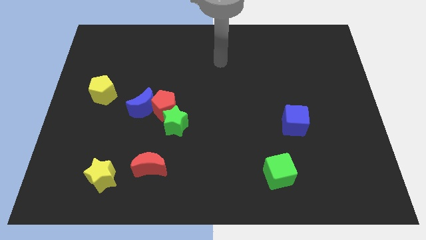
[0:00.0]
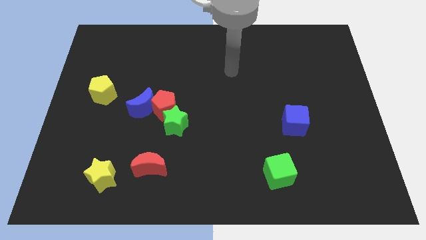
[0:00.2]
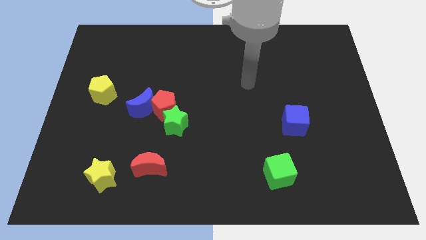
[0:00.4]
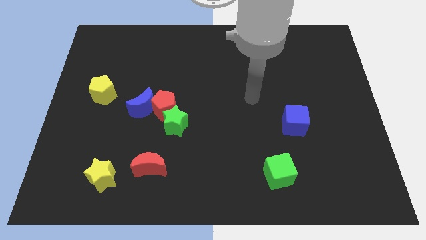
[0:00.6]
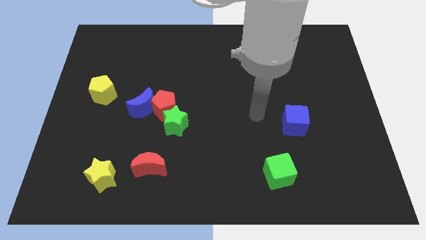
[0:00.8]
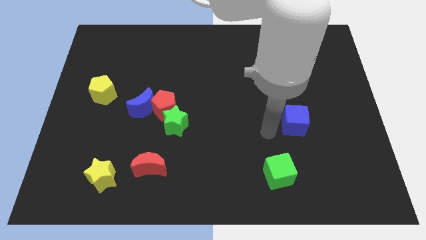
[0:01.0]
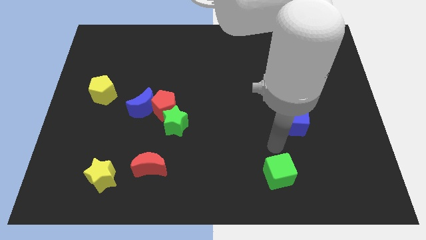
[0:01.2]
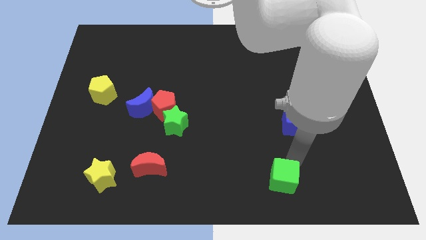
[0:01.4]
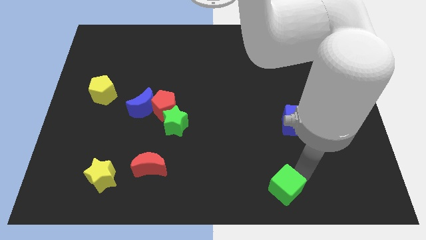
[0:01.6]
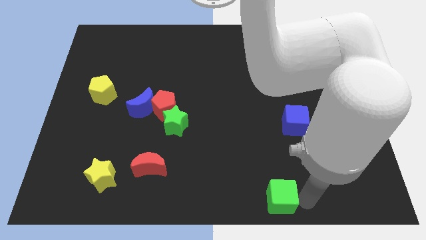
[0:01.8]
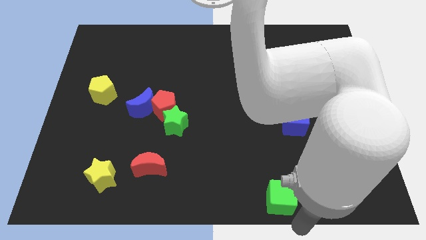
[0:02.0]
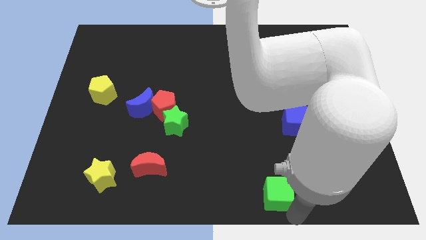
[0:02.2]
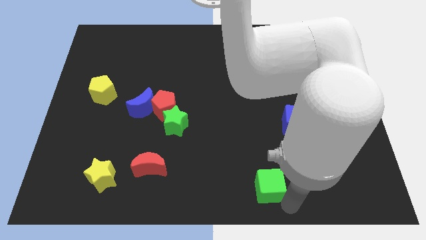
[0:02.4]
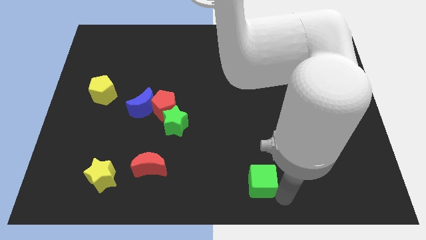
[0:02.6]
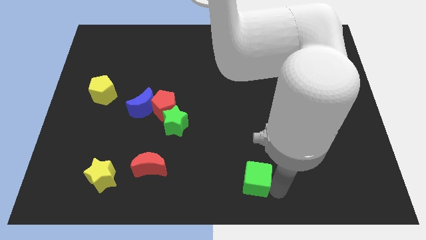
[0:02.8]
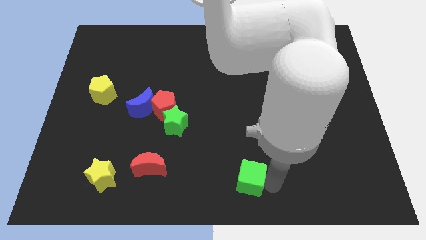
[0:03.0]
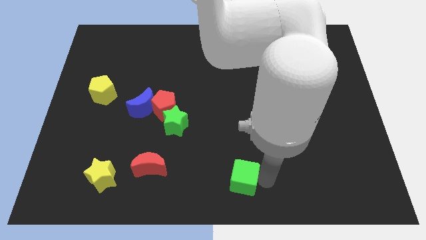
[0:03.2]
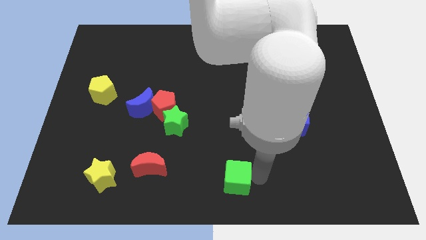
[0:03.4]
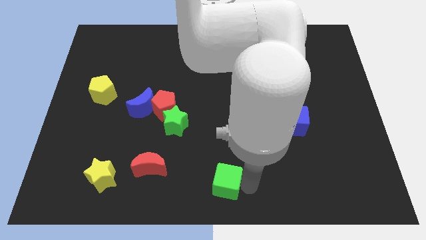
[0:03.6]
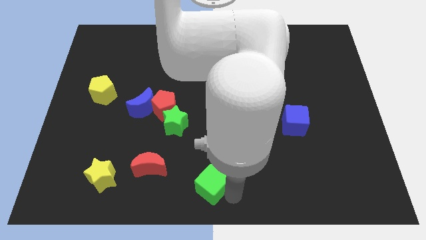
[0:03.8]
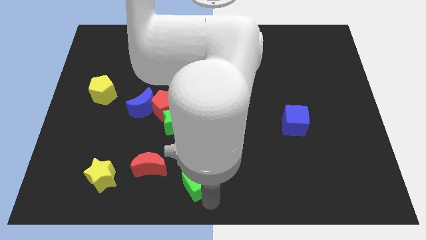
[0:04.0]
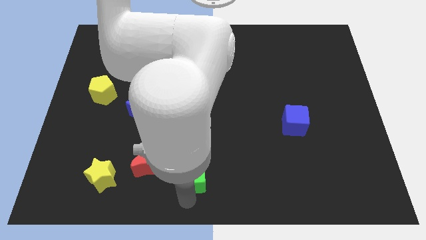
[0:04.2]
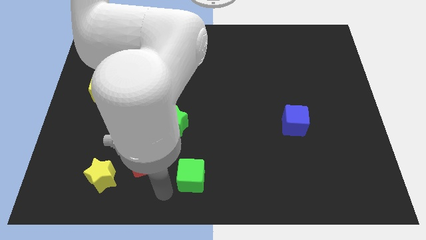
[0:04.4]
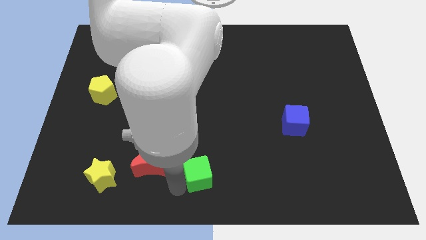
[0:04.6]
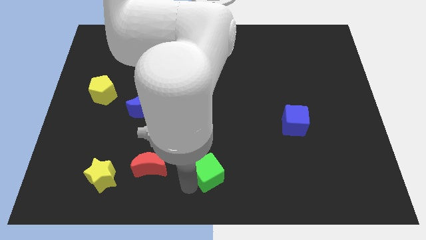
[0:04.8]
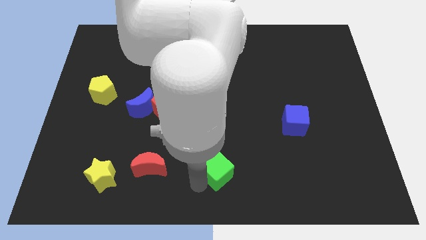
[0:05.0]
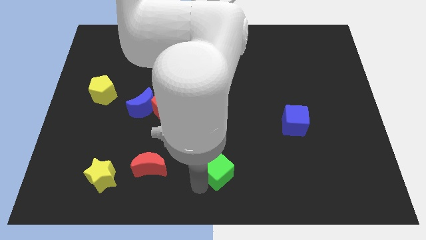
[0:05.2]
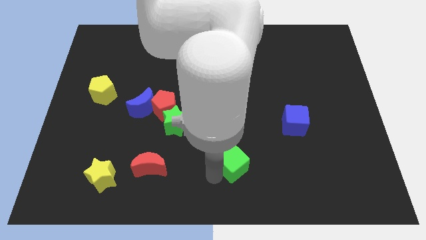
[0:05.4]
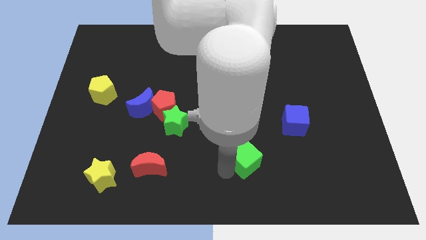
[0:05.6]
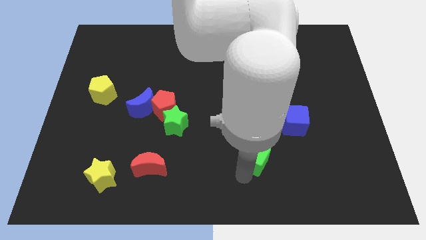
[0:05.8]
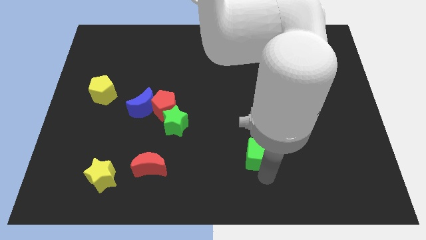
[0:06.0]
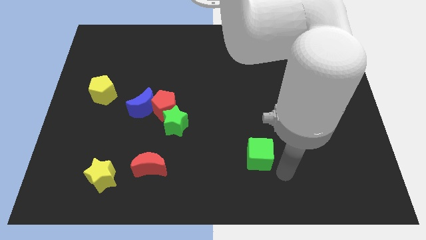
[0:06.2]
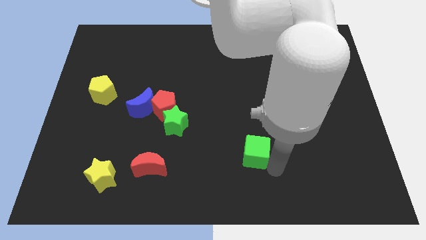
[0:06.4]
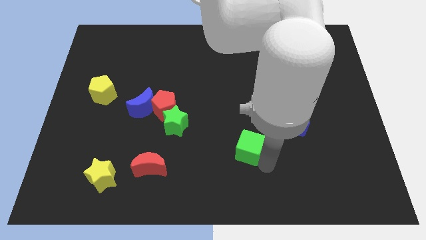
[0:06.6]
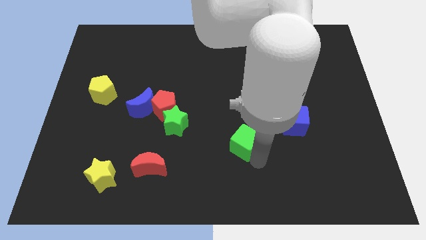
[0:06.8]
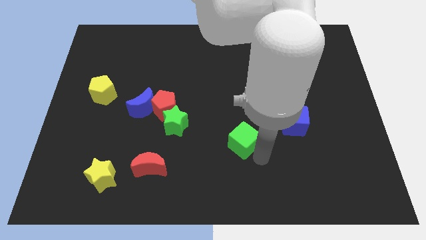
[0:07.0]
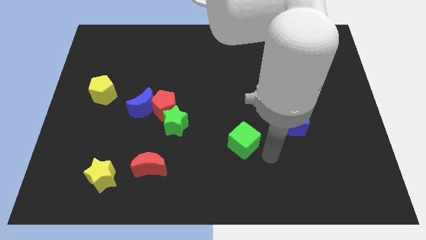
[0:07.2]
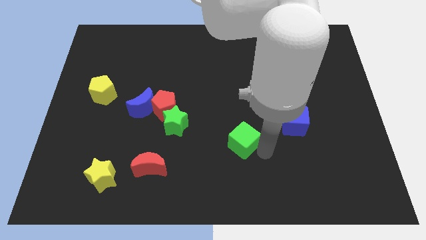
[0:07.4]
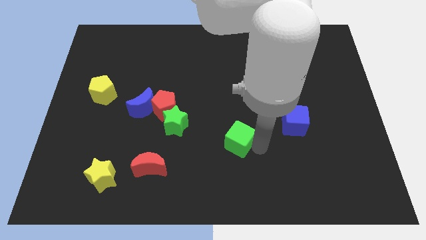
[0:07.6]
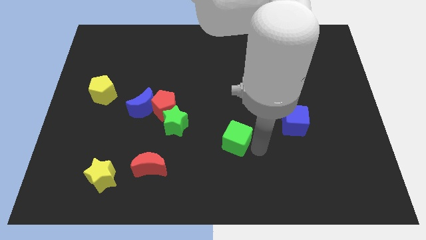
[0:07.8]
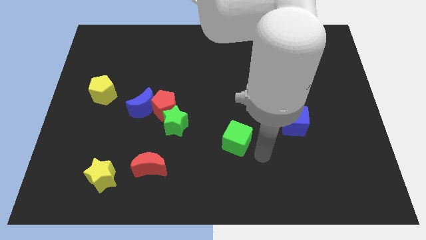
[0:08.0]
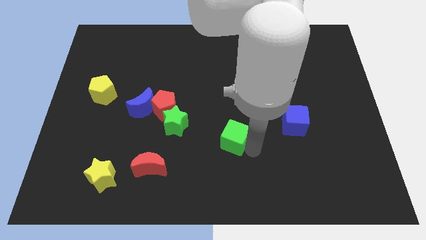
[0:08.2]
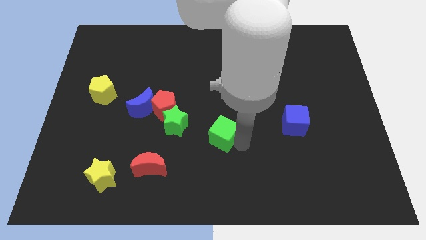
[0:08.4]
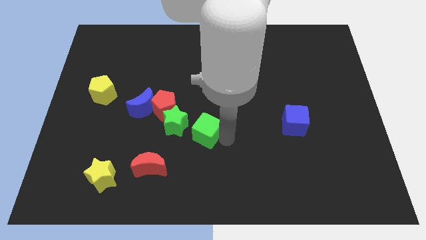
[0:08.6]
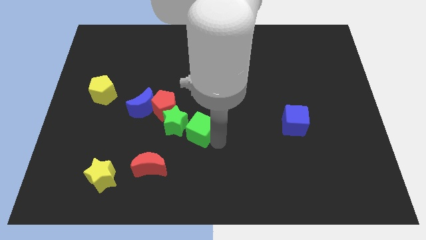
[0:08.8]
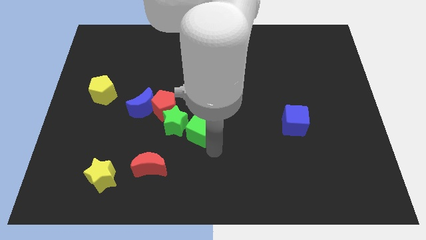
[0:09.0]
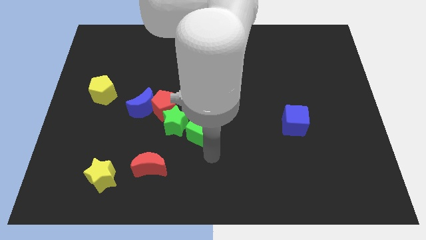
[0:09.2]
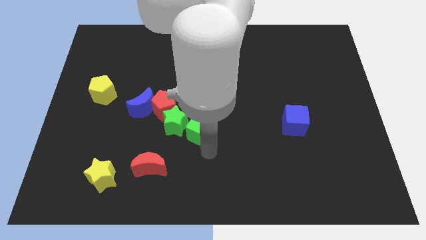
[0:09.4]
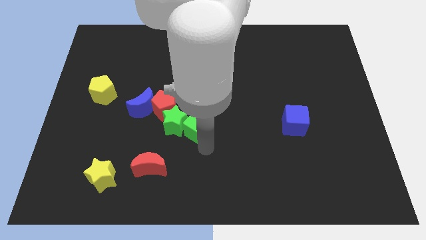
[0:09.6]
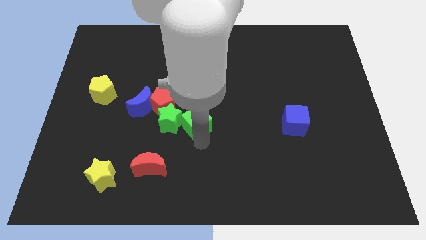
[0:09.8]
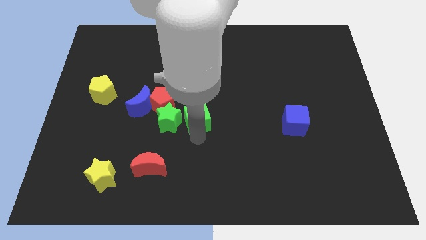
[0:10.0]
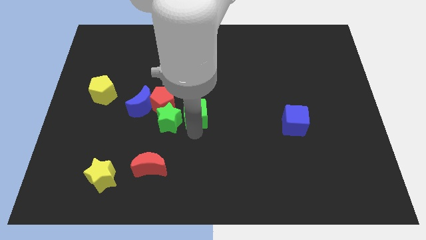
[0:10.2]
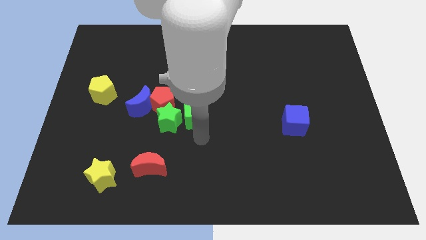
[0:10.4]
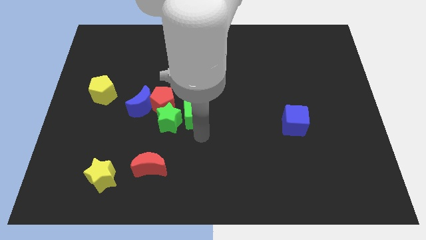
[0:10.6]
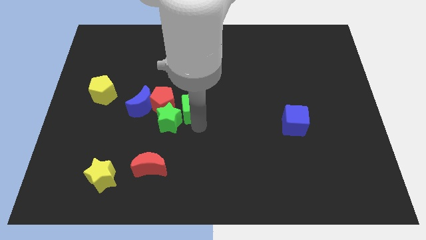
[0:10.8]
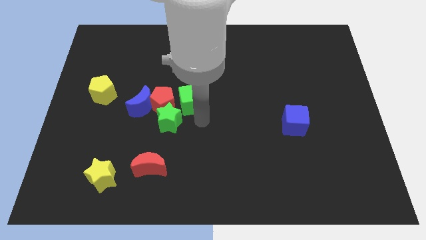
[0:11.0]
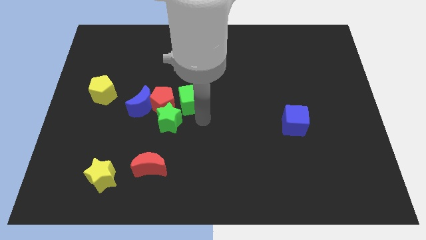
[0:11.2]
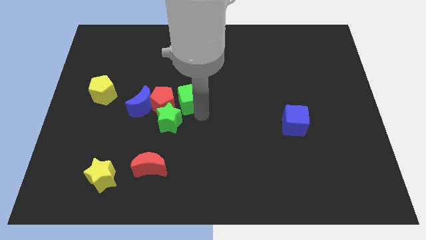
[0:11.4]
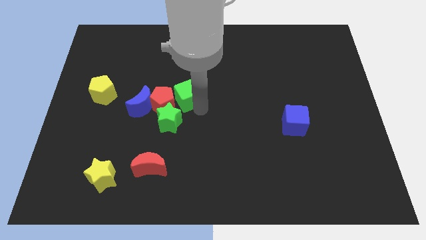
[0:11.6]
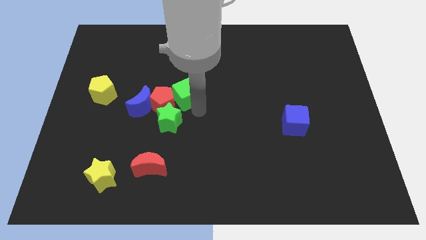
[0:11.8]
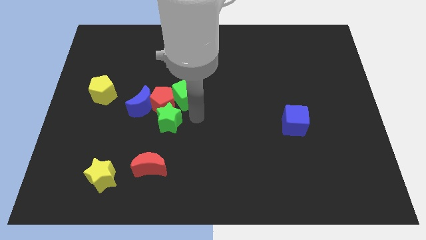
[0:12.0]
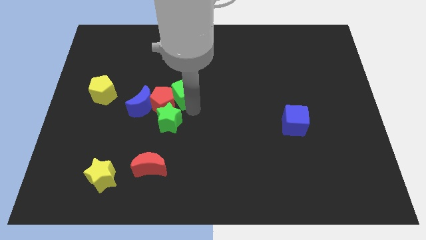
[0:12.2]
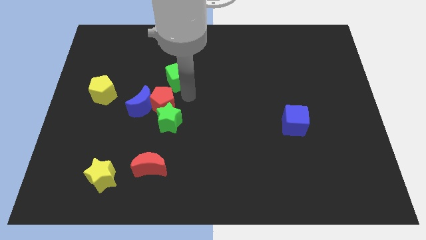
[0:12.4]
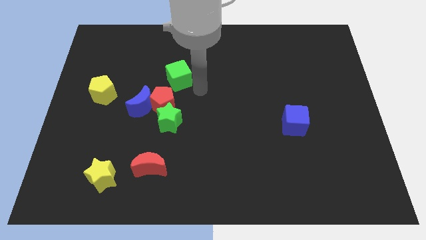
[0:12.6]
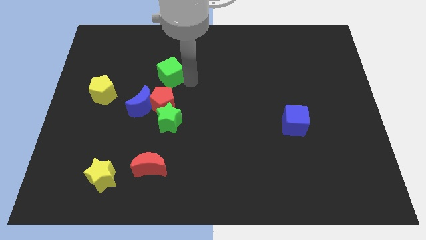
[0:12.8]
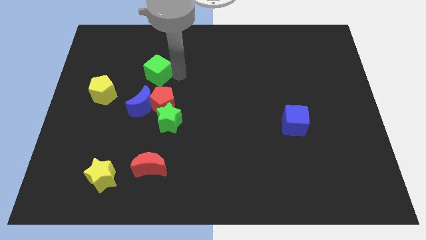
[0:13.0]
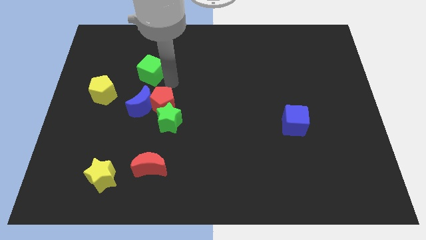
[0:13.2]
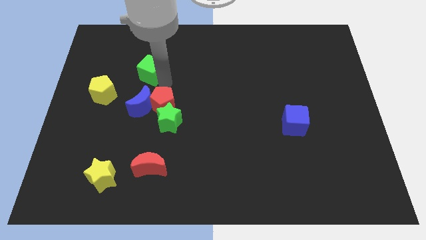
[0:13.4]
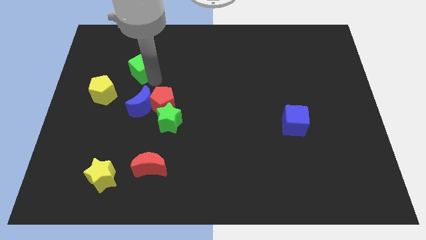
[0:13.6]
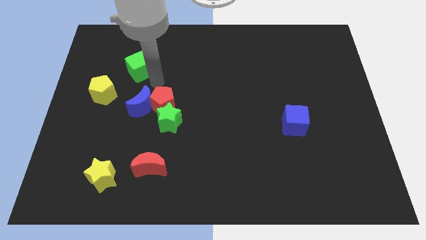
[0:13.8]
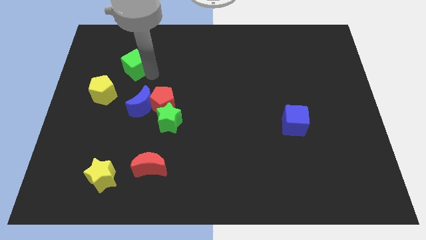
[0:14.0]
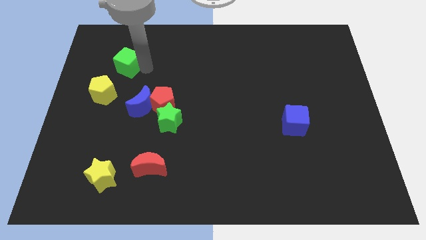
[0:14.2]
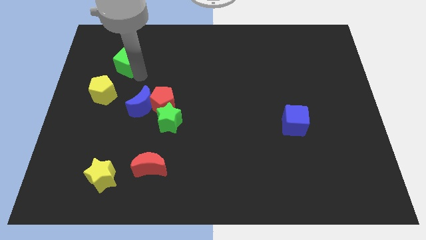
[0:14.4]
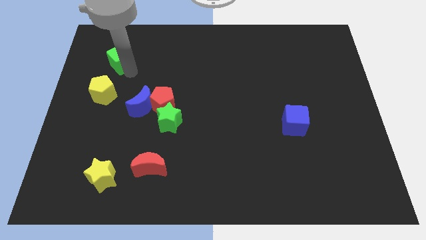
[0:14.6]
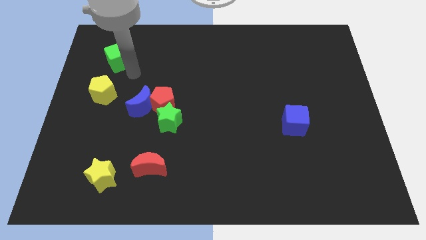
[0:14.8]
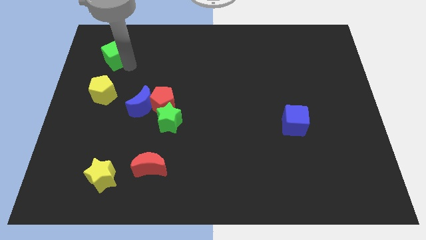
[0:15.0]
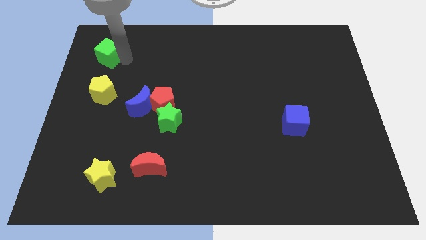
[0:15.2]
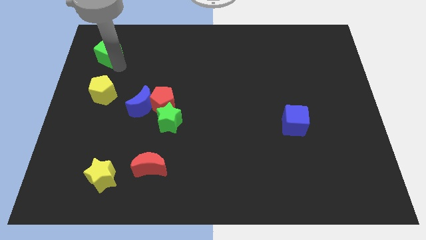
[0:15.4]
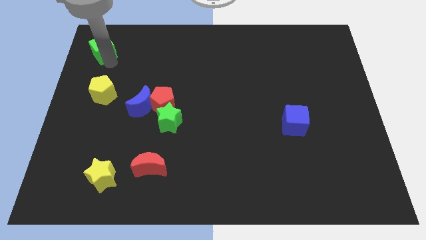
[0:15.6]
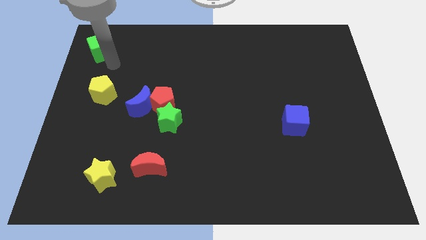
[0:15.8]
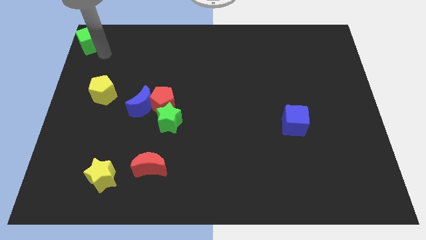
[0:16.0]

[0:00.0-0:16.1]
move the green cube to the top left of the board
